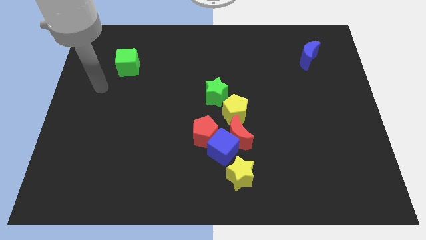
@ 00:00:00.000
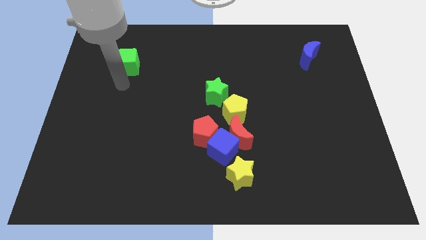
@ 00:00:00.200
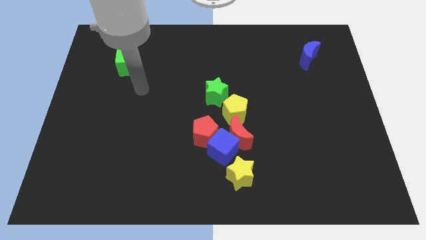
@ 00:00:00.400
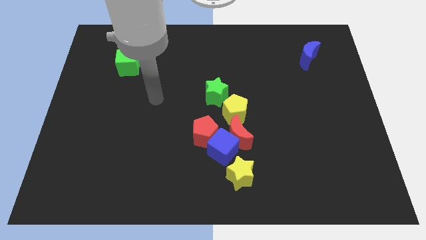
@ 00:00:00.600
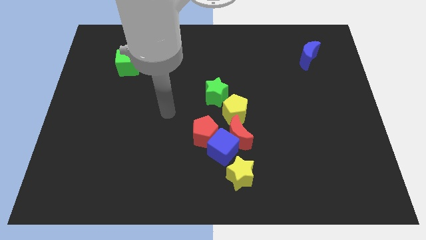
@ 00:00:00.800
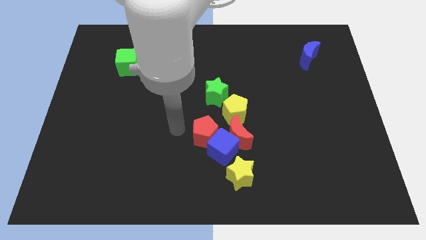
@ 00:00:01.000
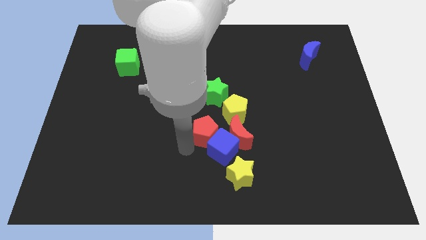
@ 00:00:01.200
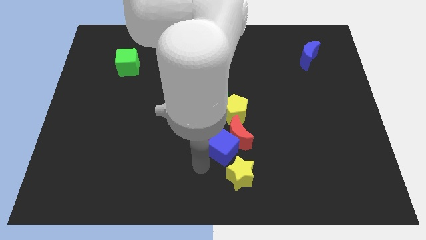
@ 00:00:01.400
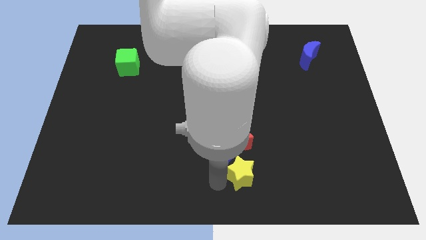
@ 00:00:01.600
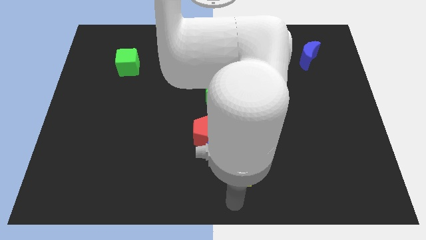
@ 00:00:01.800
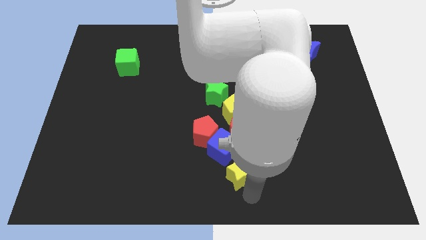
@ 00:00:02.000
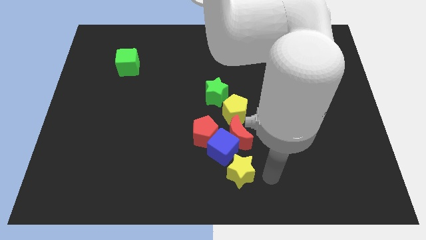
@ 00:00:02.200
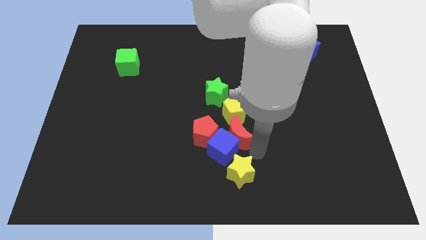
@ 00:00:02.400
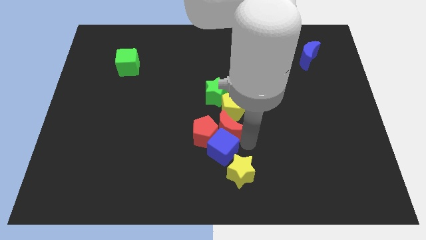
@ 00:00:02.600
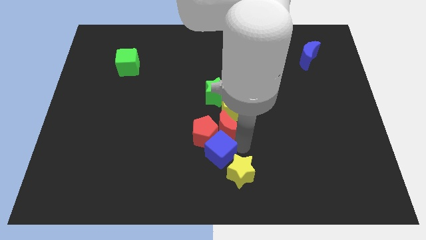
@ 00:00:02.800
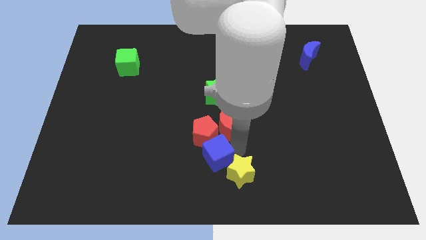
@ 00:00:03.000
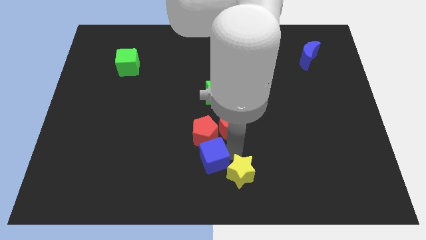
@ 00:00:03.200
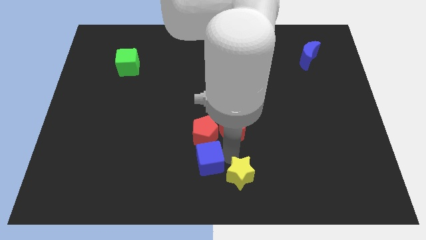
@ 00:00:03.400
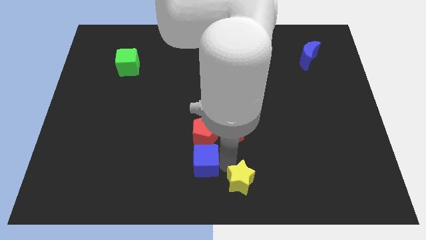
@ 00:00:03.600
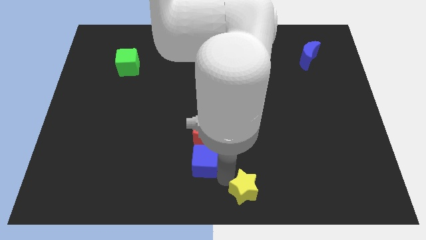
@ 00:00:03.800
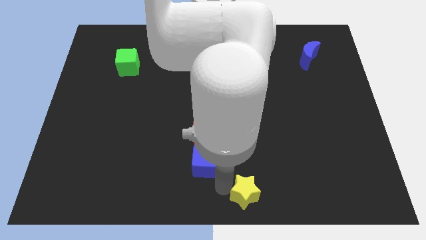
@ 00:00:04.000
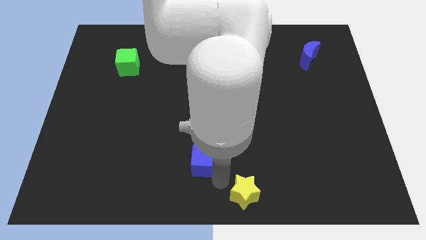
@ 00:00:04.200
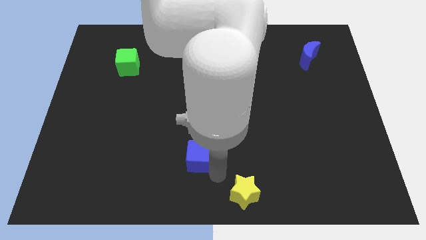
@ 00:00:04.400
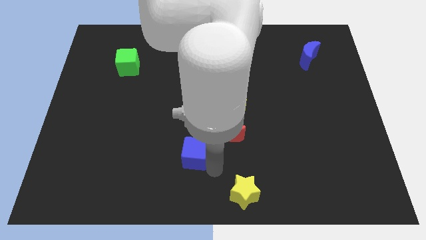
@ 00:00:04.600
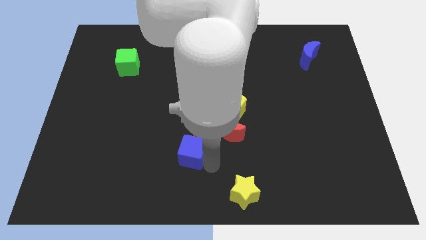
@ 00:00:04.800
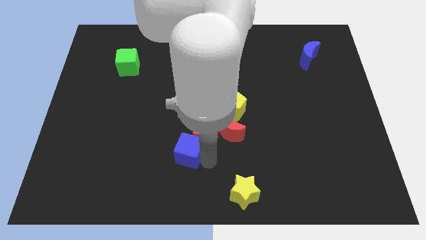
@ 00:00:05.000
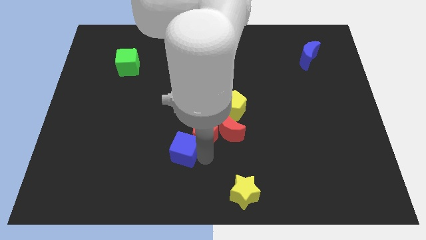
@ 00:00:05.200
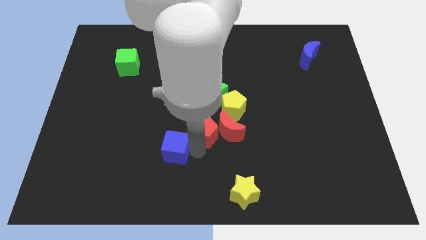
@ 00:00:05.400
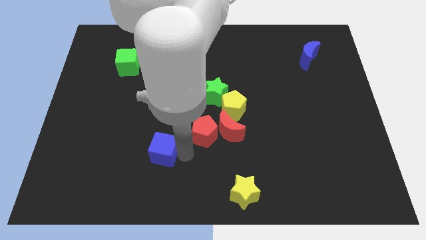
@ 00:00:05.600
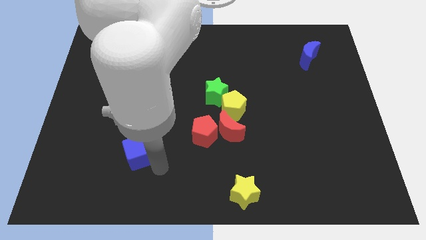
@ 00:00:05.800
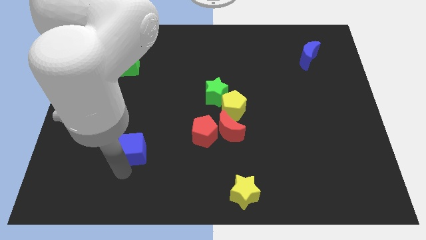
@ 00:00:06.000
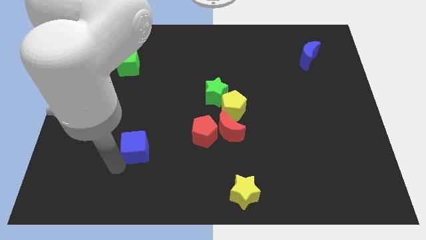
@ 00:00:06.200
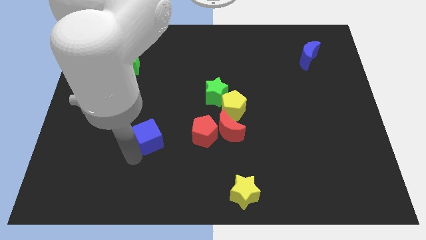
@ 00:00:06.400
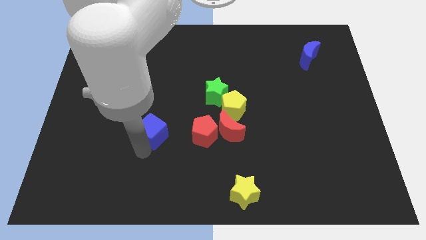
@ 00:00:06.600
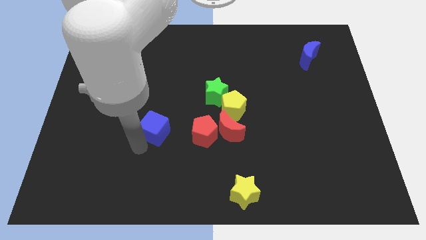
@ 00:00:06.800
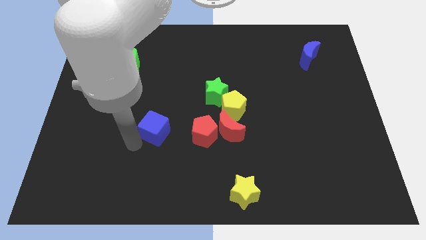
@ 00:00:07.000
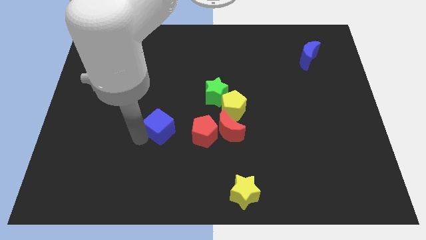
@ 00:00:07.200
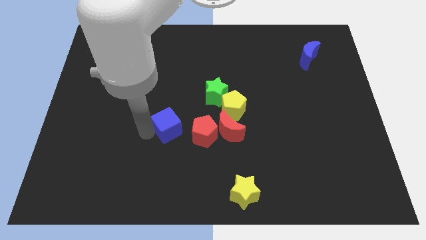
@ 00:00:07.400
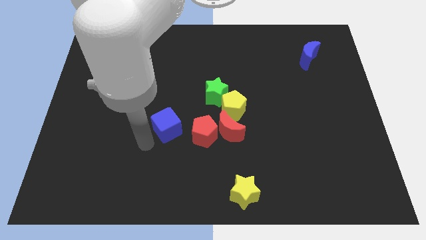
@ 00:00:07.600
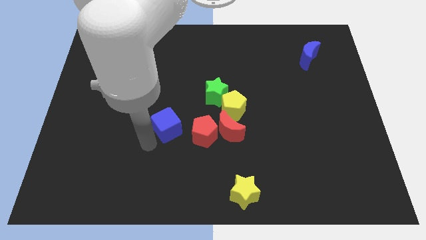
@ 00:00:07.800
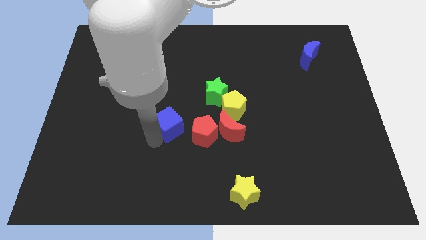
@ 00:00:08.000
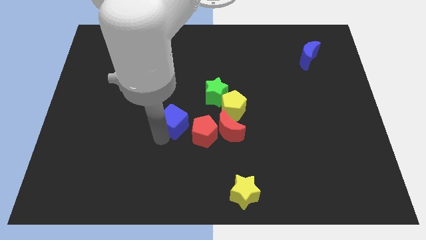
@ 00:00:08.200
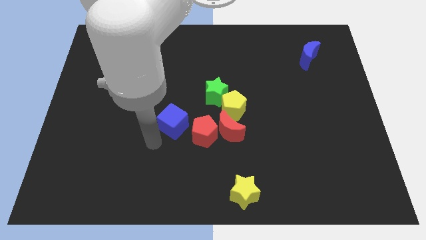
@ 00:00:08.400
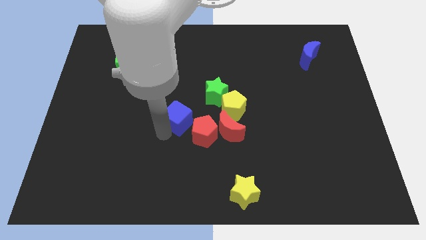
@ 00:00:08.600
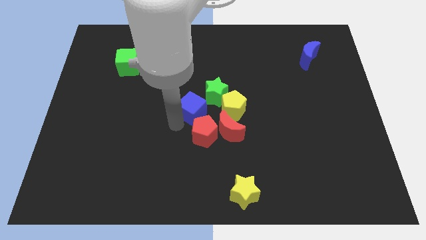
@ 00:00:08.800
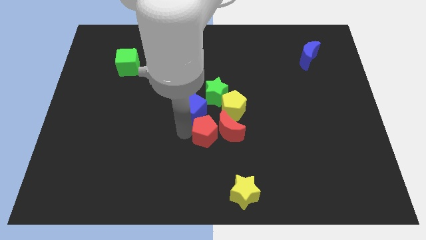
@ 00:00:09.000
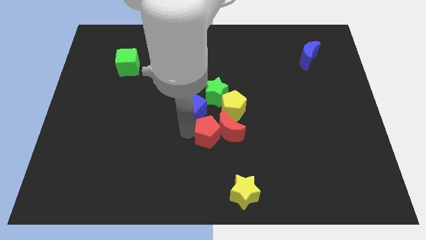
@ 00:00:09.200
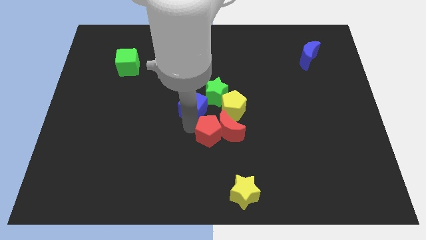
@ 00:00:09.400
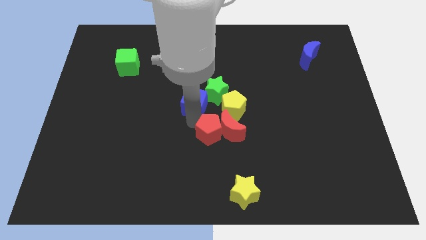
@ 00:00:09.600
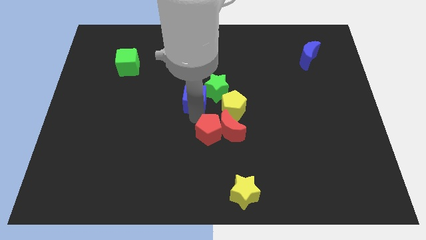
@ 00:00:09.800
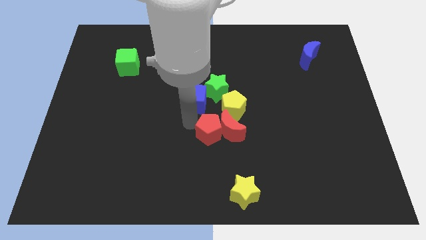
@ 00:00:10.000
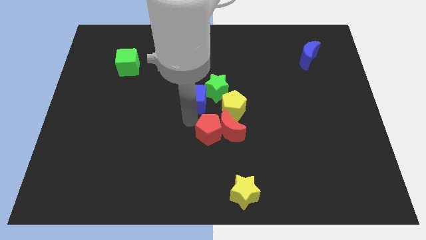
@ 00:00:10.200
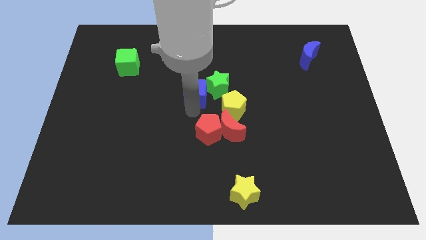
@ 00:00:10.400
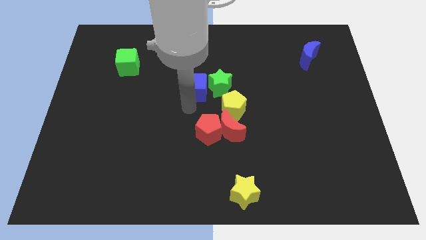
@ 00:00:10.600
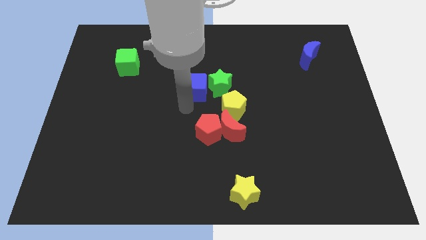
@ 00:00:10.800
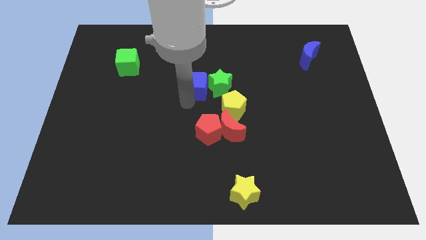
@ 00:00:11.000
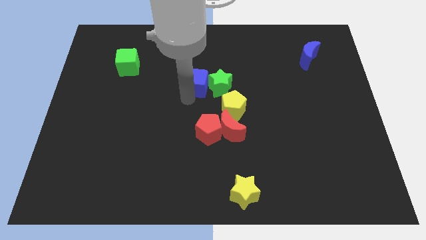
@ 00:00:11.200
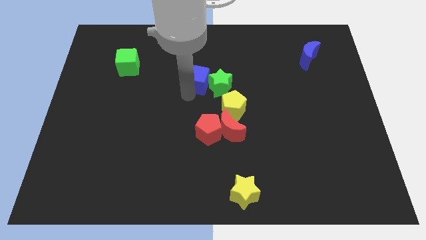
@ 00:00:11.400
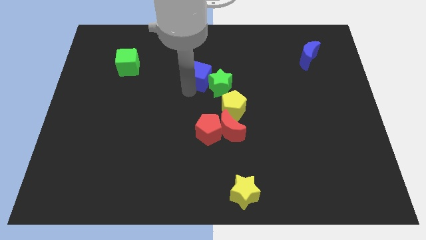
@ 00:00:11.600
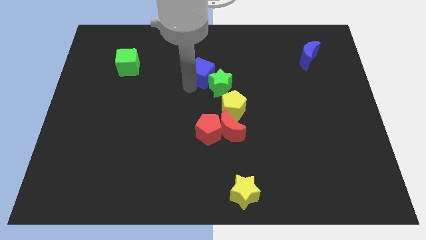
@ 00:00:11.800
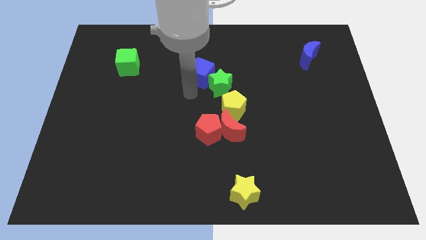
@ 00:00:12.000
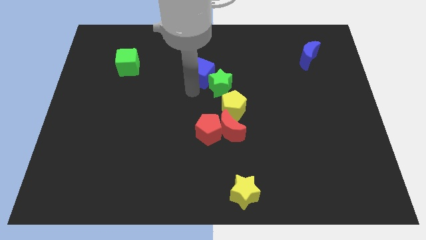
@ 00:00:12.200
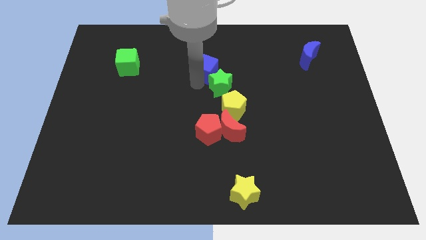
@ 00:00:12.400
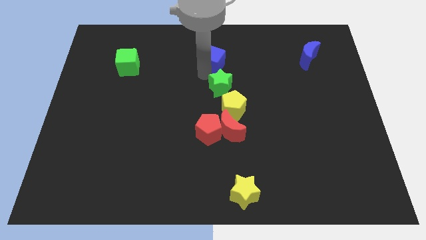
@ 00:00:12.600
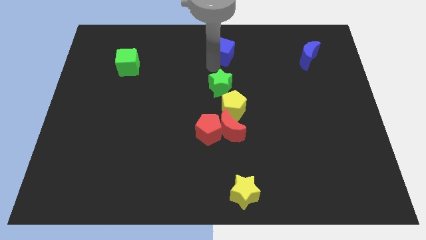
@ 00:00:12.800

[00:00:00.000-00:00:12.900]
move the blue cube to the top
